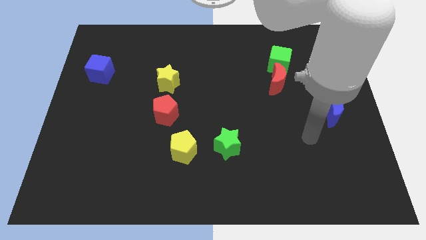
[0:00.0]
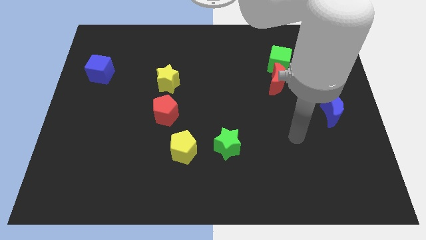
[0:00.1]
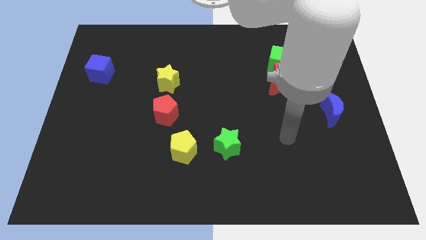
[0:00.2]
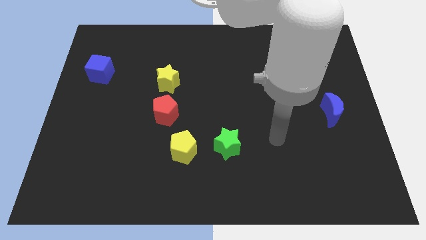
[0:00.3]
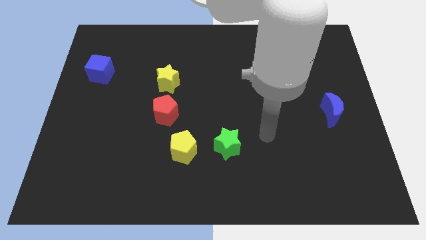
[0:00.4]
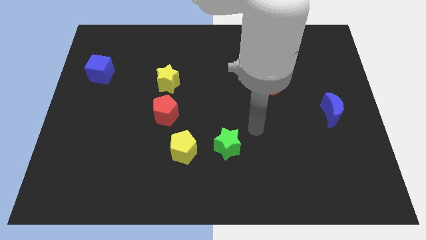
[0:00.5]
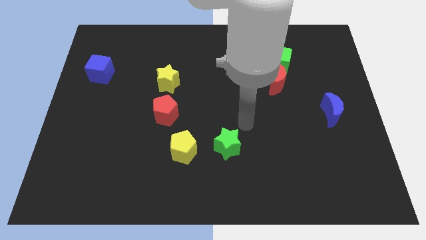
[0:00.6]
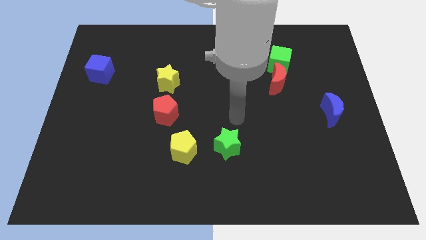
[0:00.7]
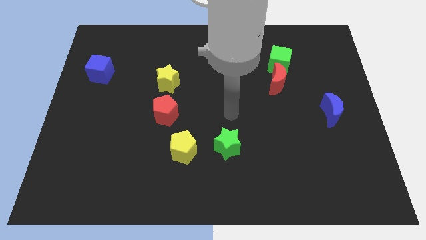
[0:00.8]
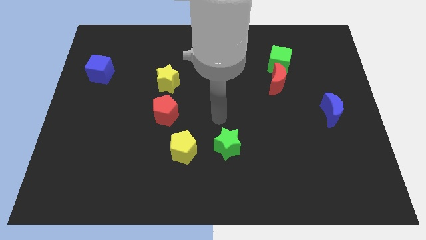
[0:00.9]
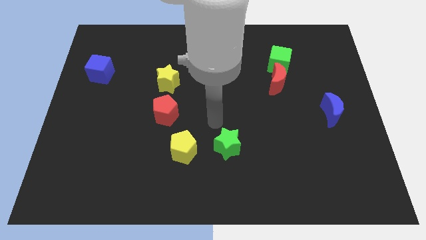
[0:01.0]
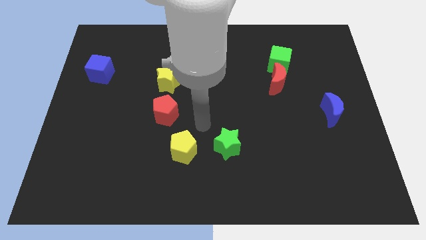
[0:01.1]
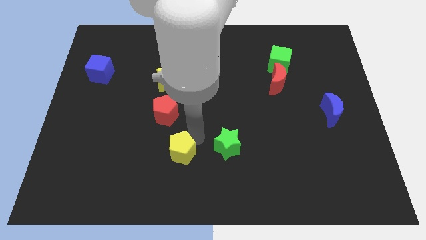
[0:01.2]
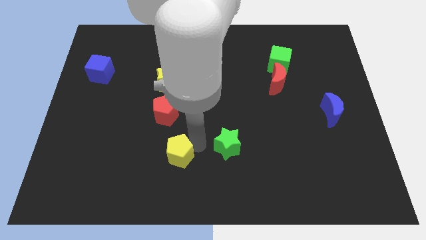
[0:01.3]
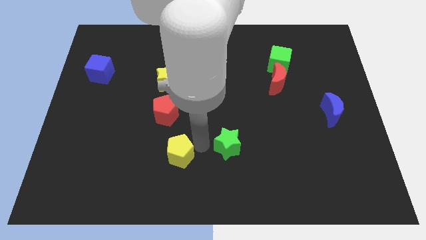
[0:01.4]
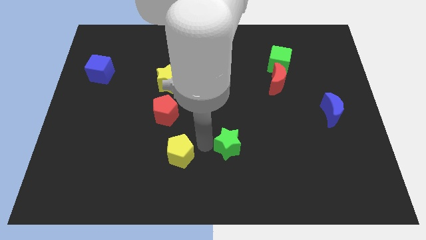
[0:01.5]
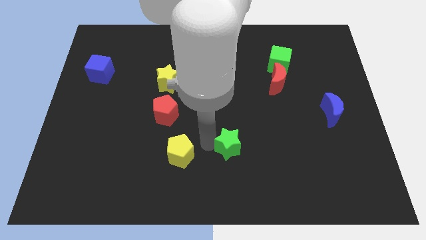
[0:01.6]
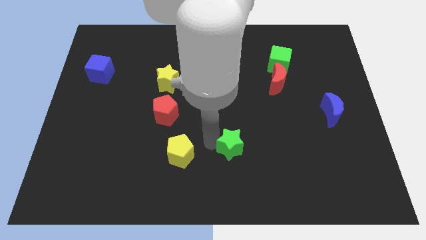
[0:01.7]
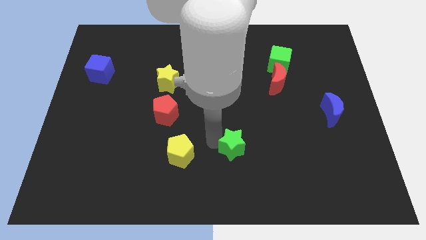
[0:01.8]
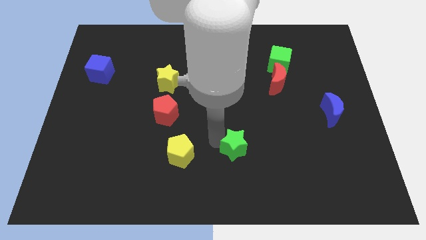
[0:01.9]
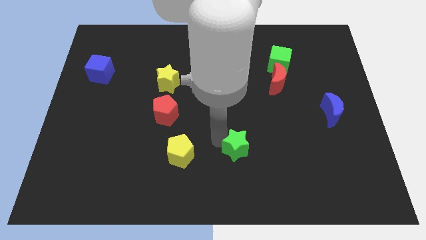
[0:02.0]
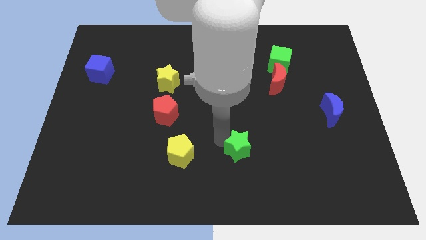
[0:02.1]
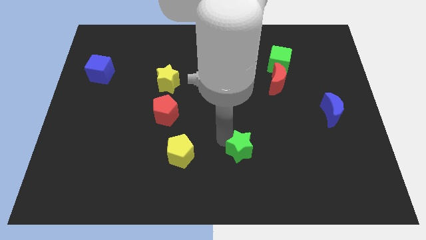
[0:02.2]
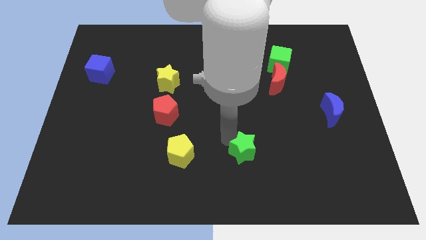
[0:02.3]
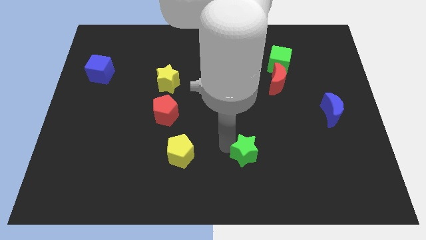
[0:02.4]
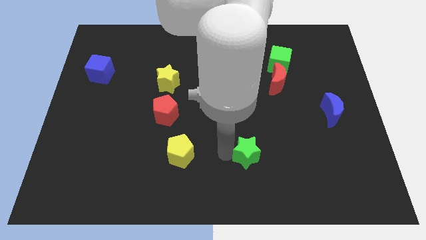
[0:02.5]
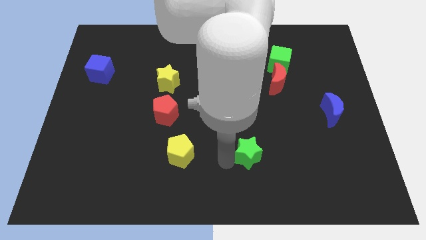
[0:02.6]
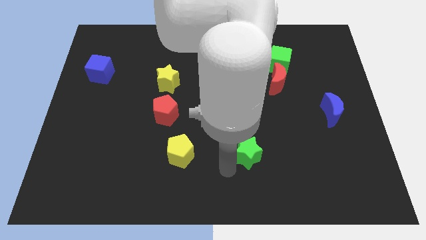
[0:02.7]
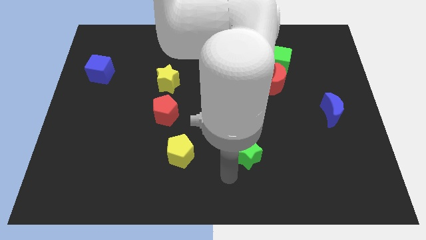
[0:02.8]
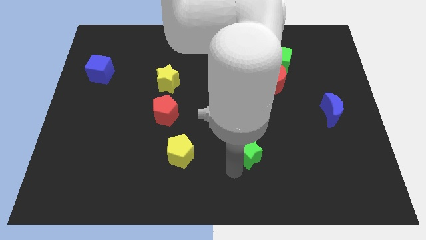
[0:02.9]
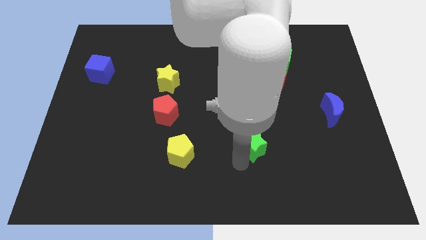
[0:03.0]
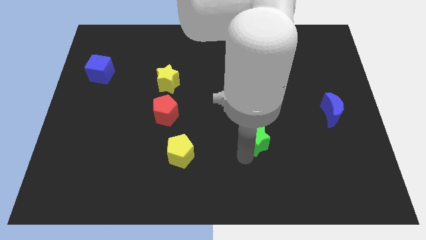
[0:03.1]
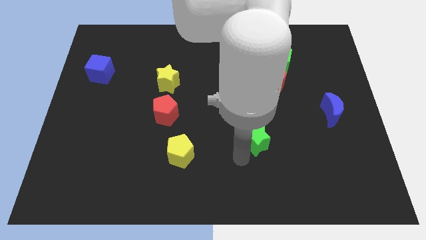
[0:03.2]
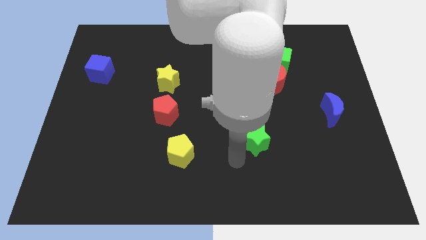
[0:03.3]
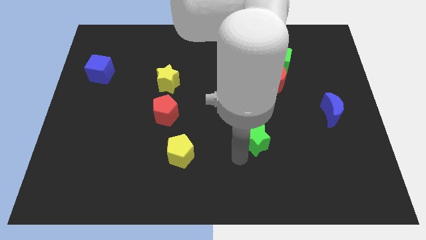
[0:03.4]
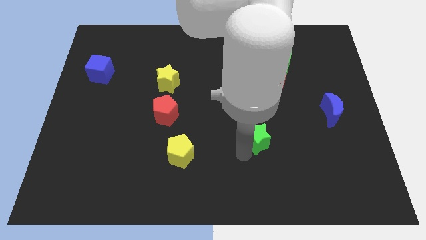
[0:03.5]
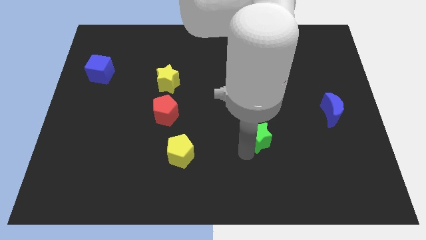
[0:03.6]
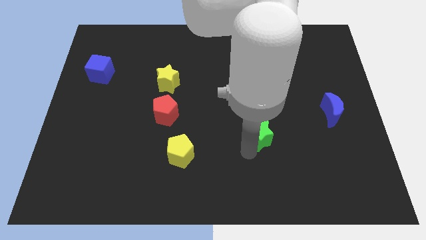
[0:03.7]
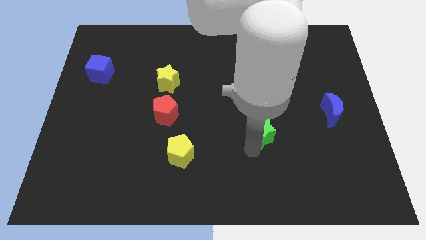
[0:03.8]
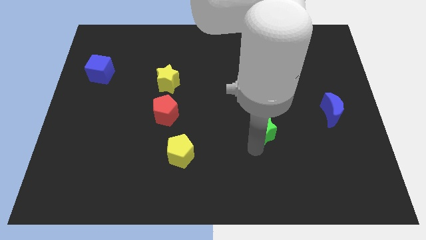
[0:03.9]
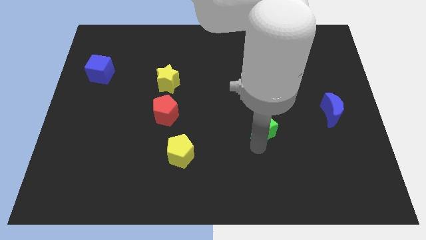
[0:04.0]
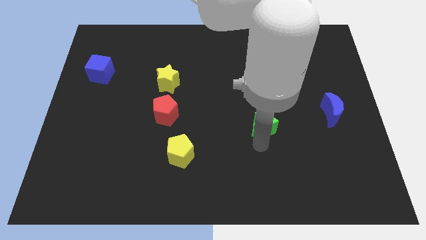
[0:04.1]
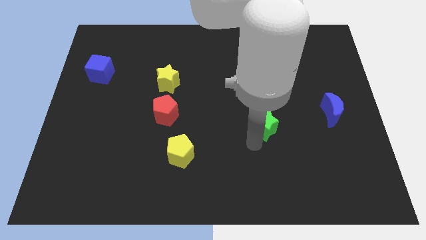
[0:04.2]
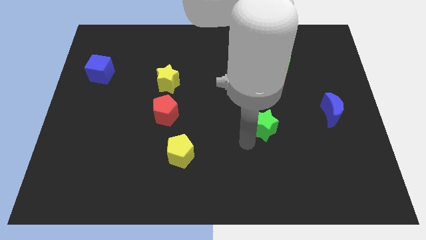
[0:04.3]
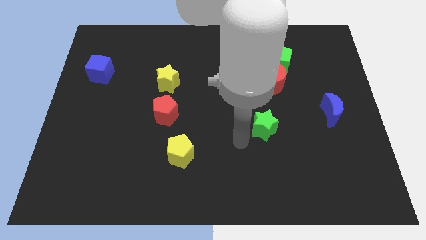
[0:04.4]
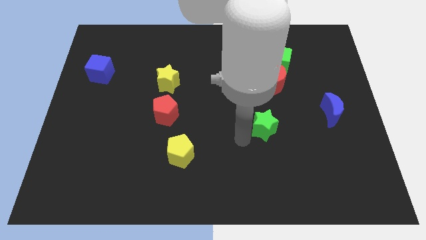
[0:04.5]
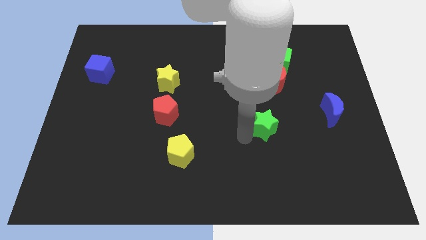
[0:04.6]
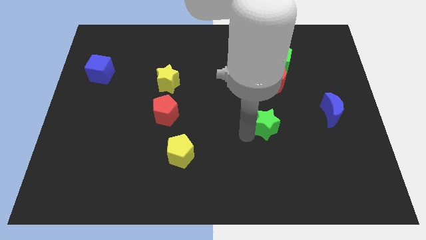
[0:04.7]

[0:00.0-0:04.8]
move the green star to the bottom of the red moon

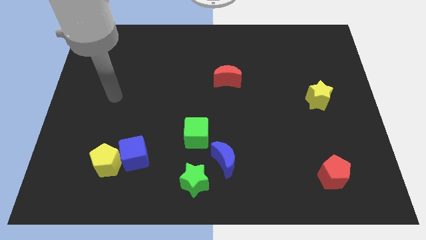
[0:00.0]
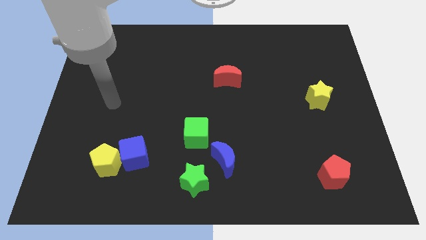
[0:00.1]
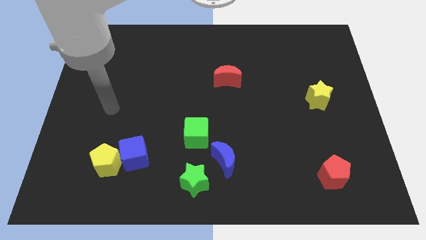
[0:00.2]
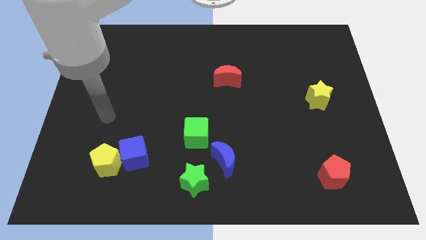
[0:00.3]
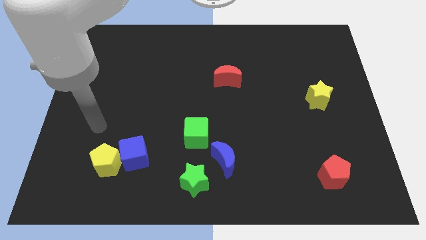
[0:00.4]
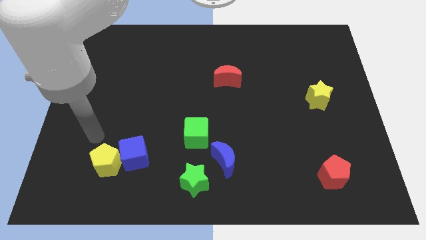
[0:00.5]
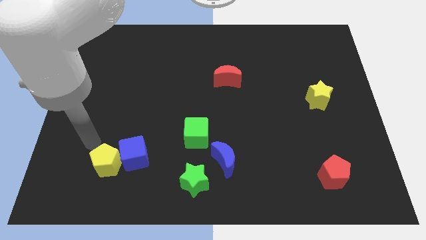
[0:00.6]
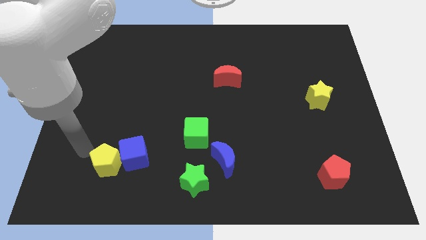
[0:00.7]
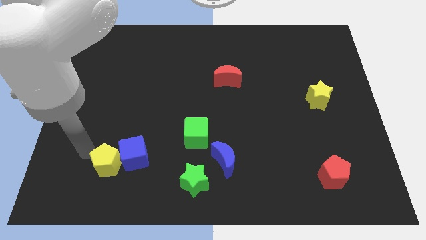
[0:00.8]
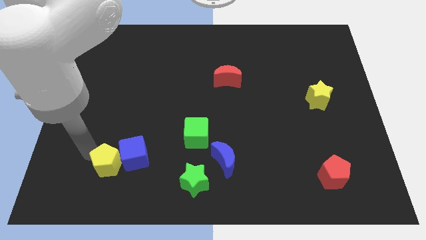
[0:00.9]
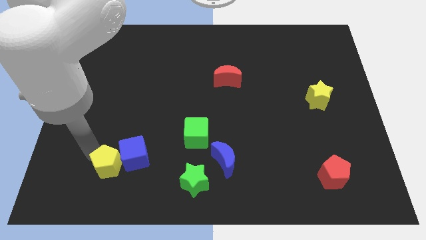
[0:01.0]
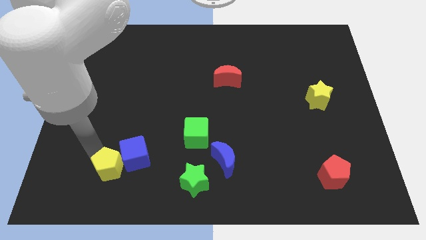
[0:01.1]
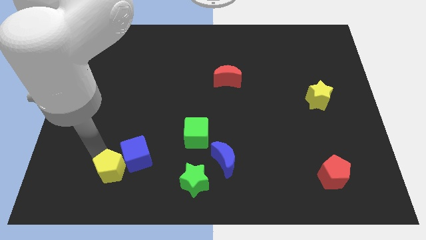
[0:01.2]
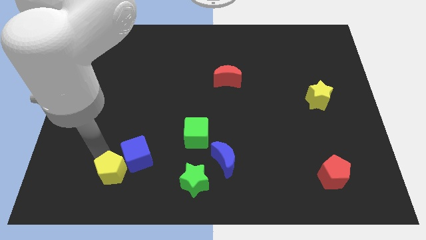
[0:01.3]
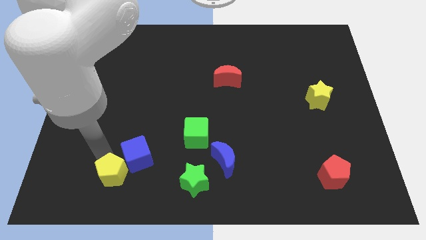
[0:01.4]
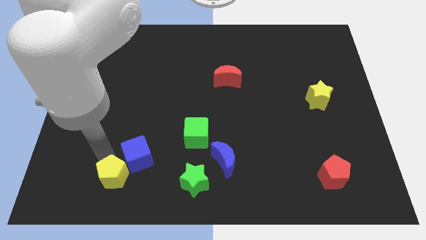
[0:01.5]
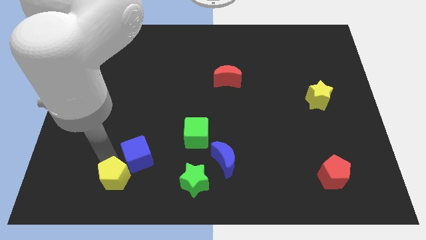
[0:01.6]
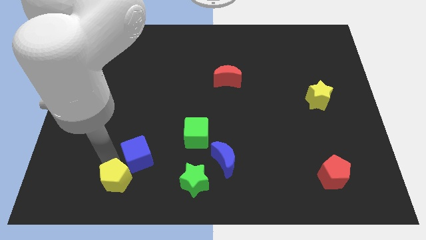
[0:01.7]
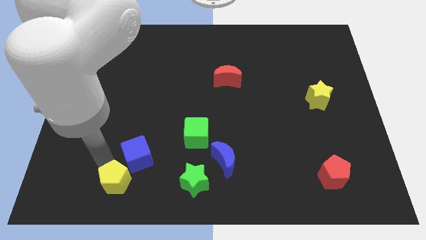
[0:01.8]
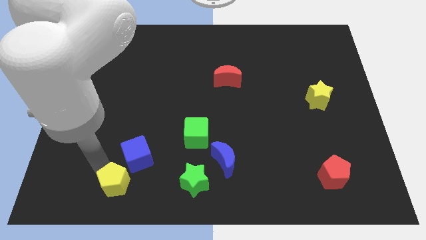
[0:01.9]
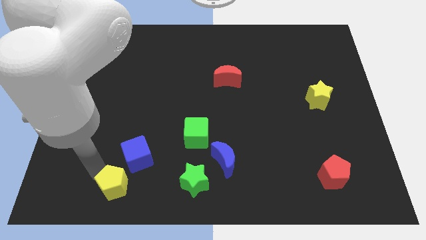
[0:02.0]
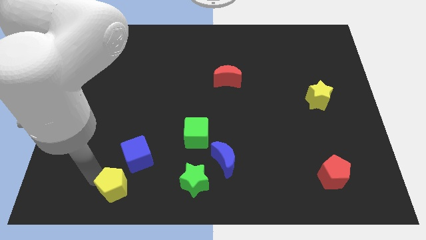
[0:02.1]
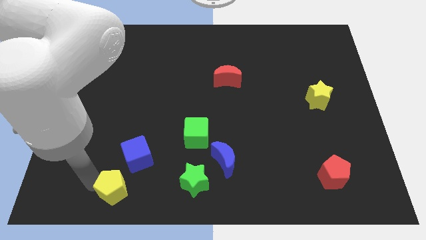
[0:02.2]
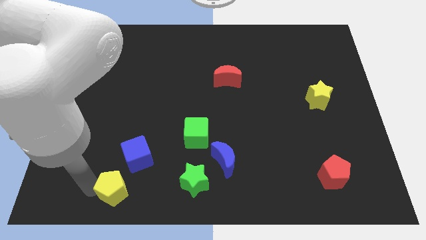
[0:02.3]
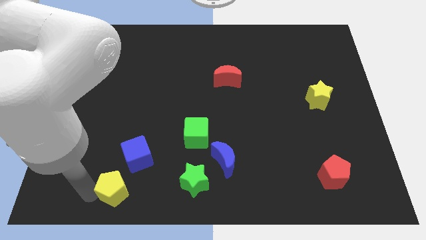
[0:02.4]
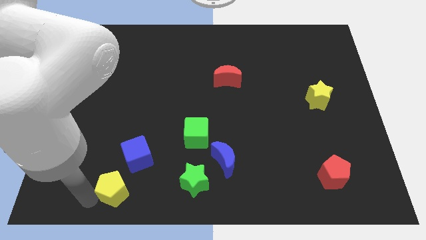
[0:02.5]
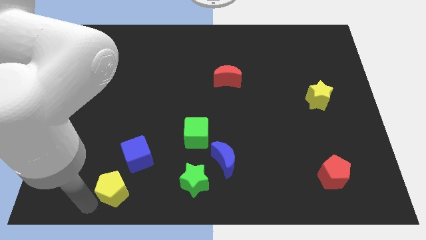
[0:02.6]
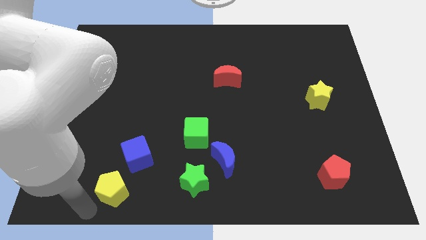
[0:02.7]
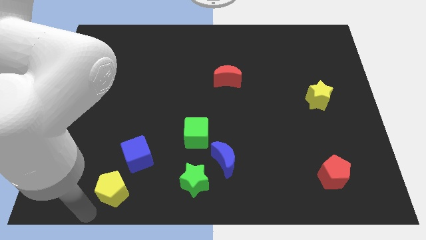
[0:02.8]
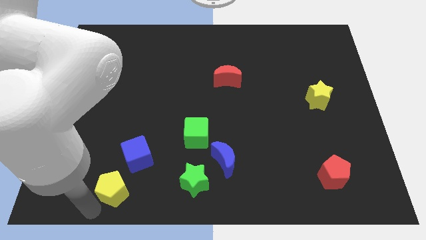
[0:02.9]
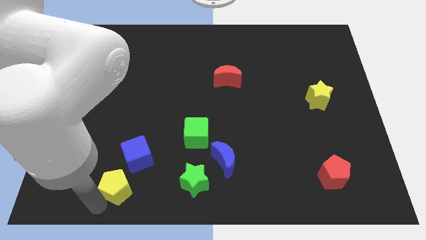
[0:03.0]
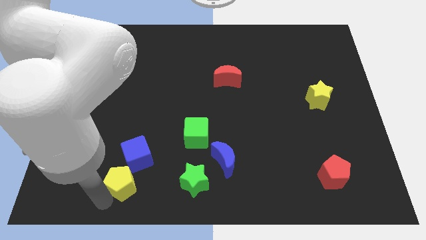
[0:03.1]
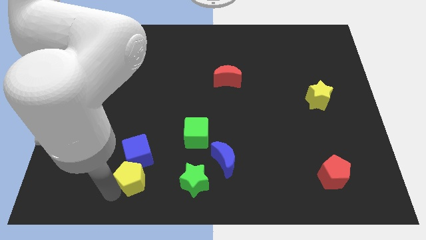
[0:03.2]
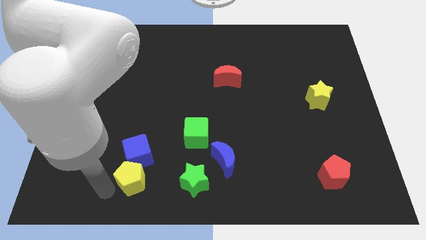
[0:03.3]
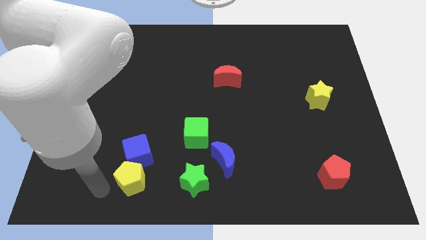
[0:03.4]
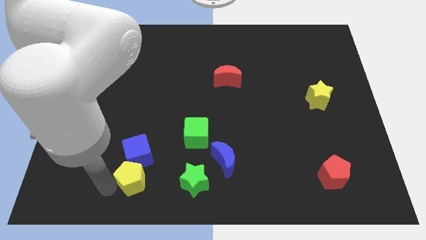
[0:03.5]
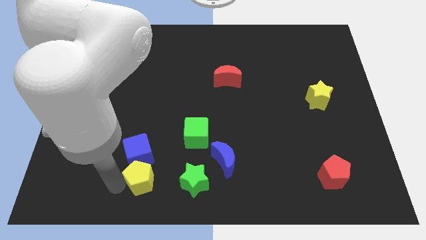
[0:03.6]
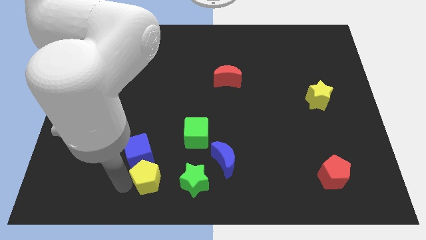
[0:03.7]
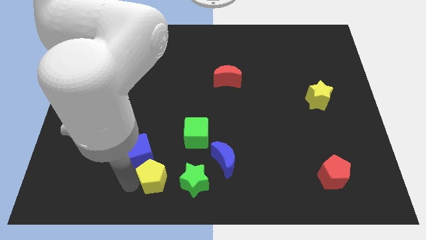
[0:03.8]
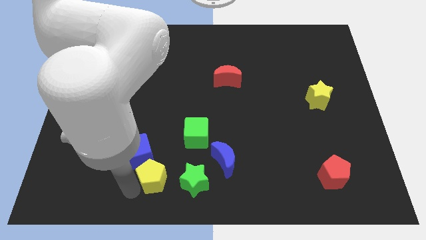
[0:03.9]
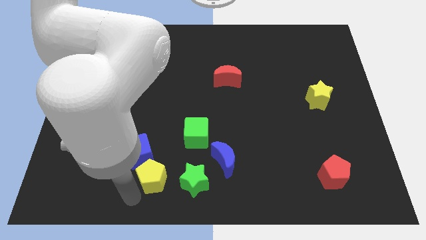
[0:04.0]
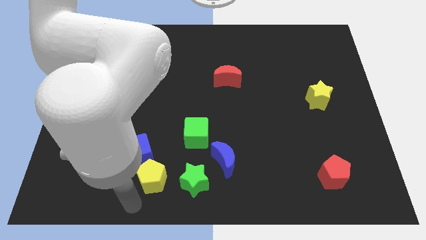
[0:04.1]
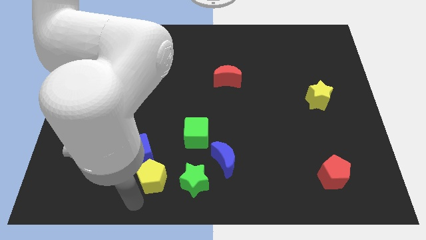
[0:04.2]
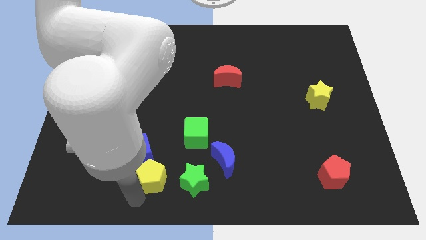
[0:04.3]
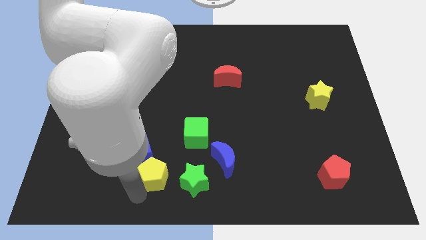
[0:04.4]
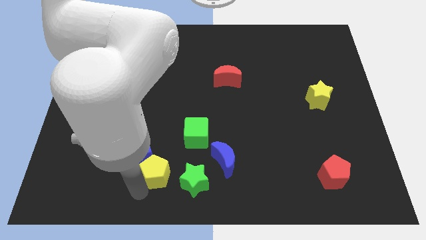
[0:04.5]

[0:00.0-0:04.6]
put the yellow pentagon to the bottom left of the green cube
